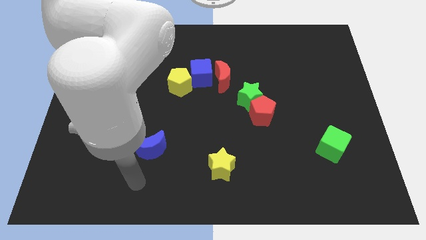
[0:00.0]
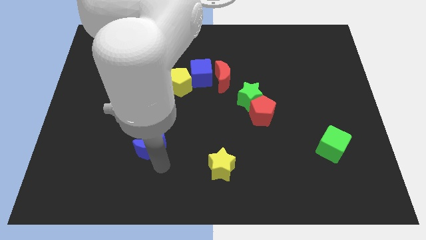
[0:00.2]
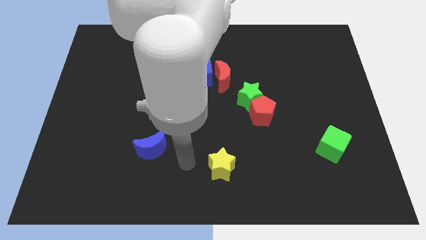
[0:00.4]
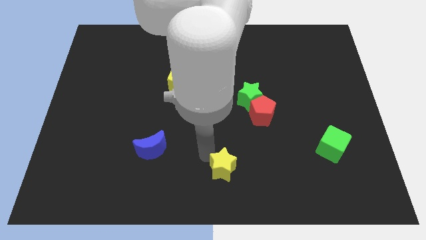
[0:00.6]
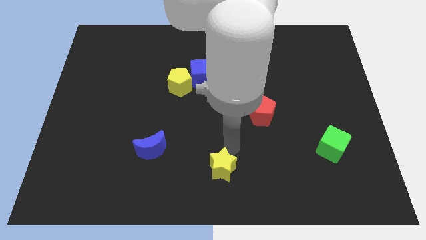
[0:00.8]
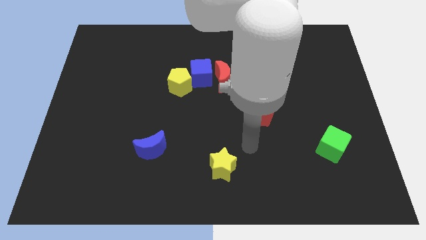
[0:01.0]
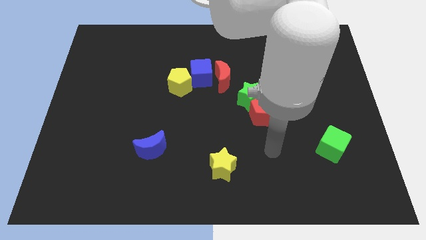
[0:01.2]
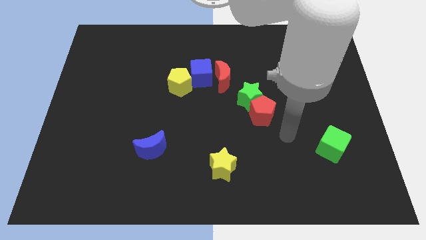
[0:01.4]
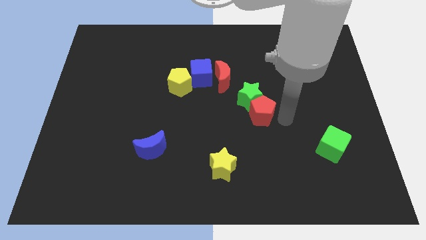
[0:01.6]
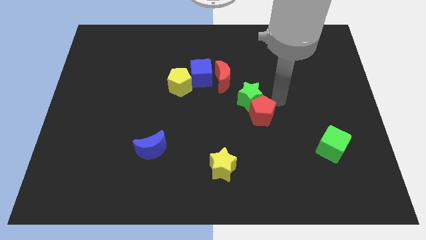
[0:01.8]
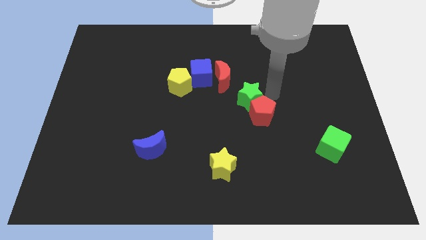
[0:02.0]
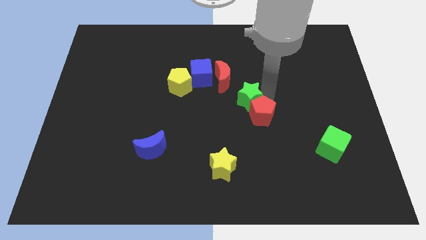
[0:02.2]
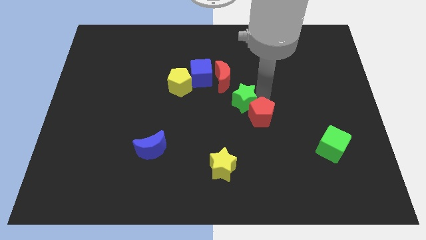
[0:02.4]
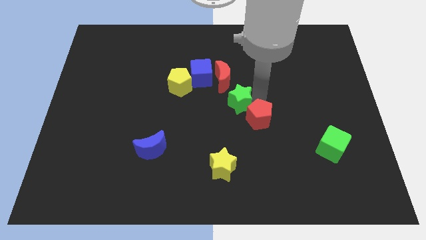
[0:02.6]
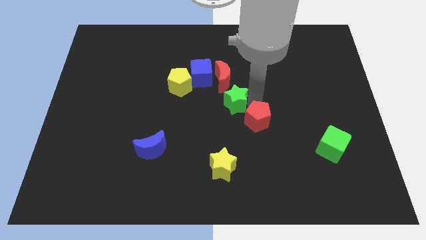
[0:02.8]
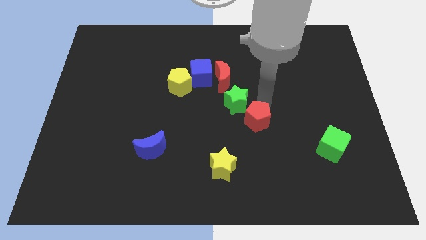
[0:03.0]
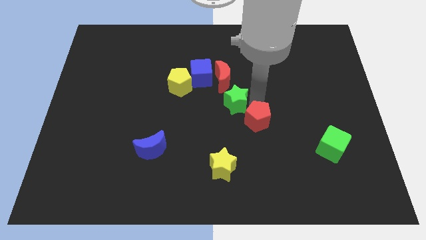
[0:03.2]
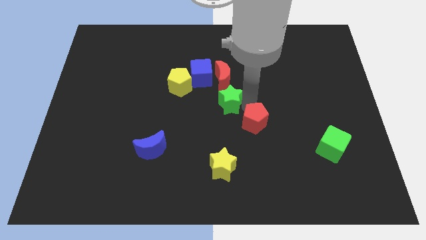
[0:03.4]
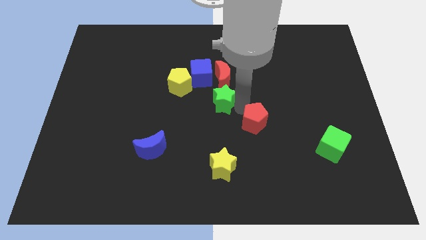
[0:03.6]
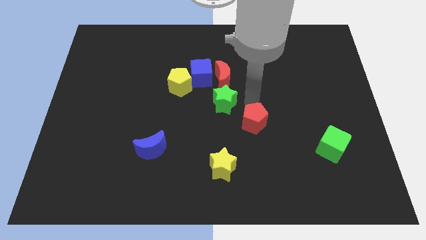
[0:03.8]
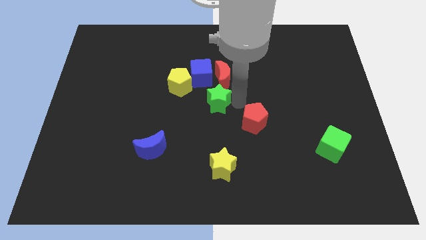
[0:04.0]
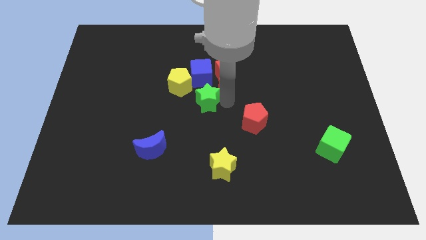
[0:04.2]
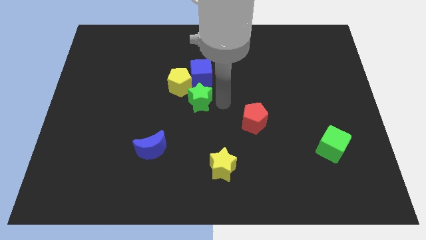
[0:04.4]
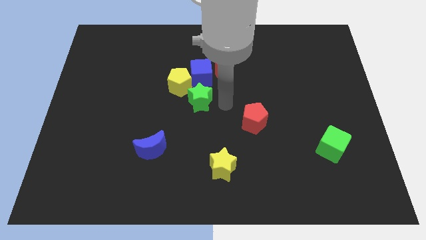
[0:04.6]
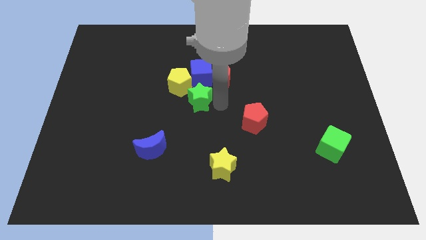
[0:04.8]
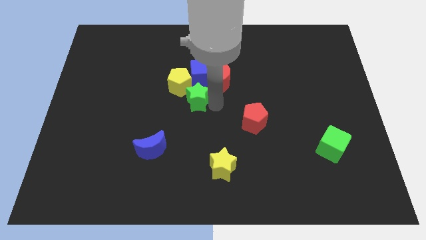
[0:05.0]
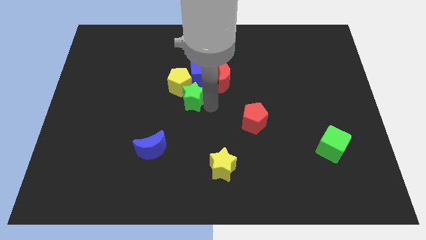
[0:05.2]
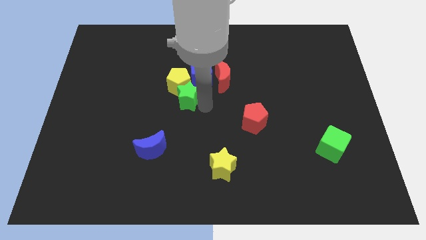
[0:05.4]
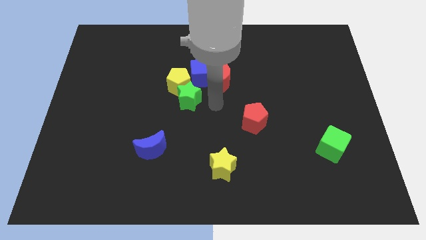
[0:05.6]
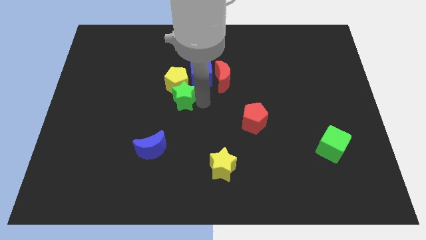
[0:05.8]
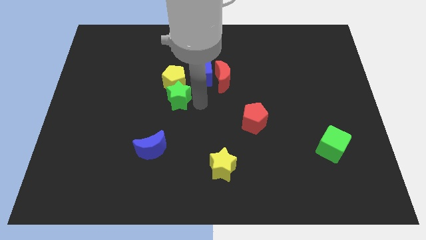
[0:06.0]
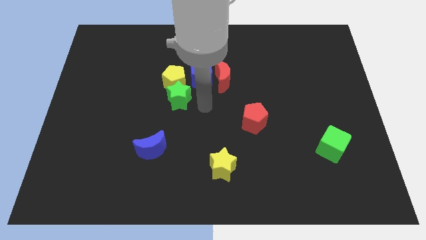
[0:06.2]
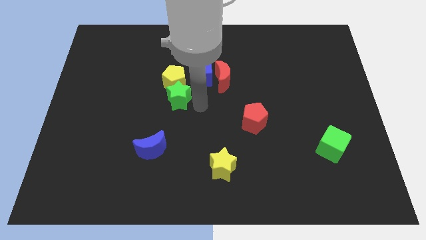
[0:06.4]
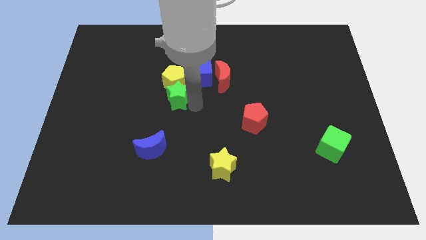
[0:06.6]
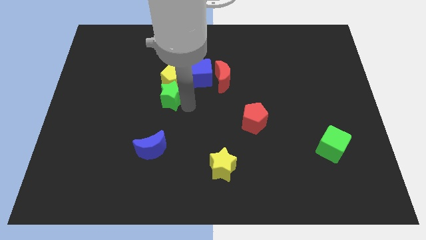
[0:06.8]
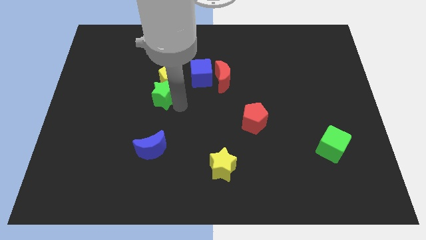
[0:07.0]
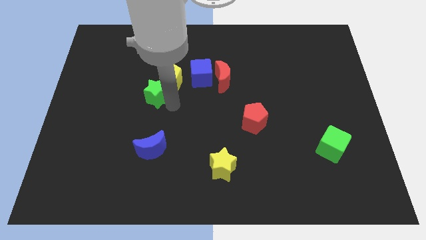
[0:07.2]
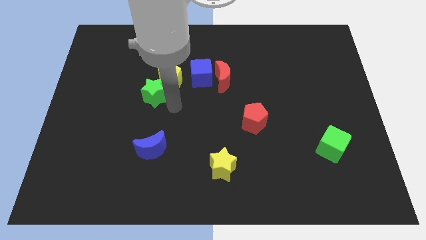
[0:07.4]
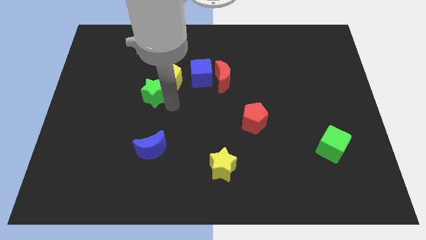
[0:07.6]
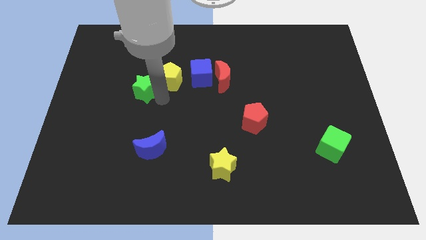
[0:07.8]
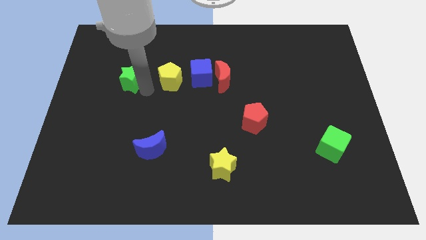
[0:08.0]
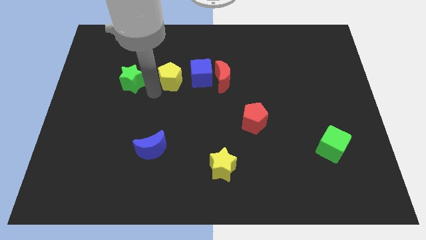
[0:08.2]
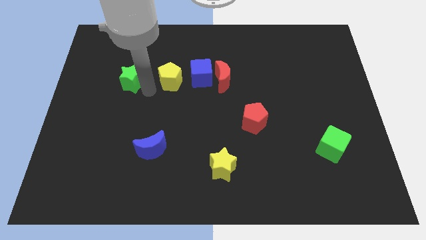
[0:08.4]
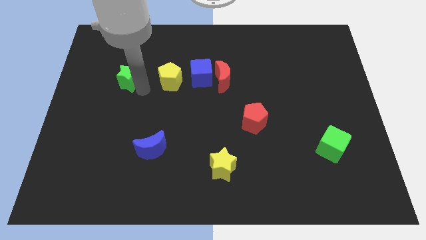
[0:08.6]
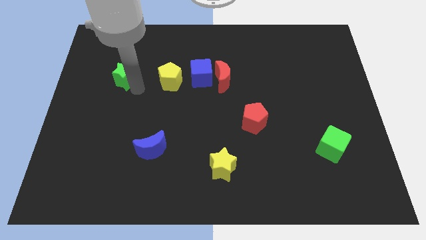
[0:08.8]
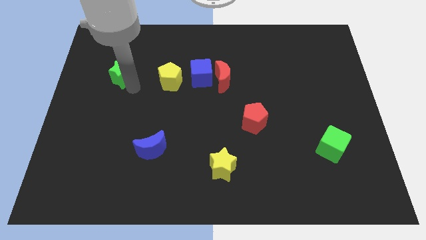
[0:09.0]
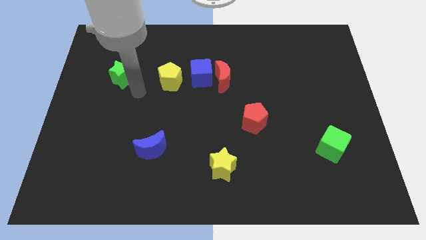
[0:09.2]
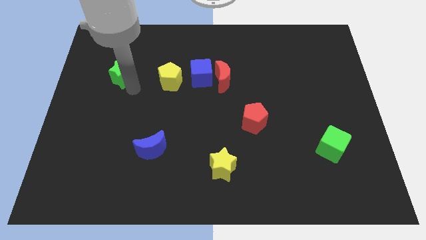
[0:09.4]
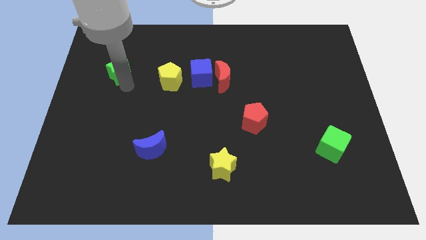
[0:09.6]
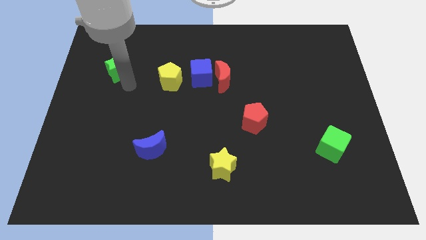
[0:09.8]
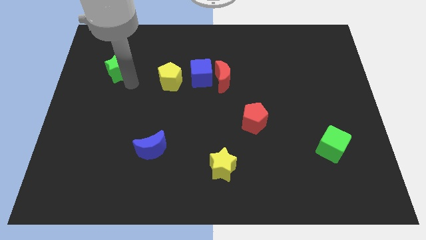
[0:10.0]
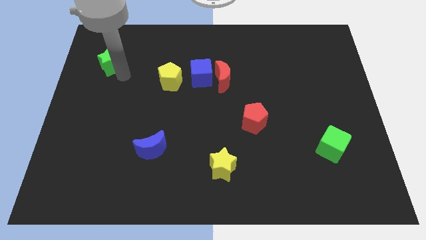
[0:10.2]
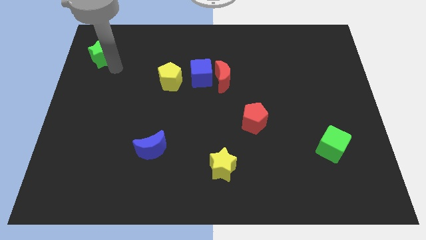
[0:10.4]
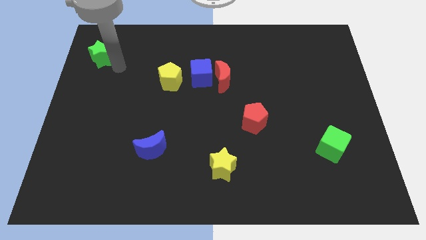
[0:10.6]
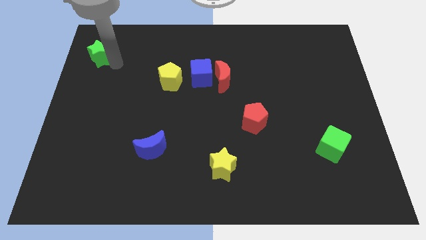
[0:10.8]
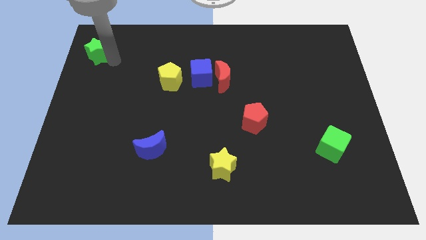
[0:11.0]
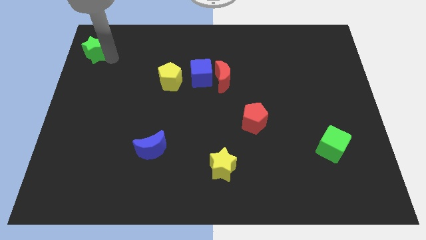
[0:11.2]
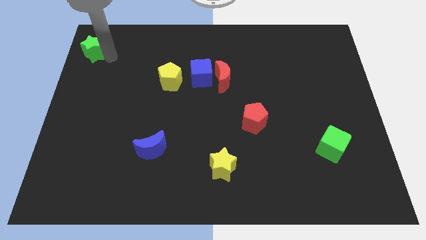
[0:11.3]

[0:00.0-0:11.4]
move the green star to the upper left corner
